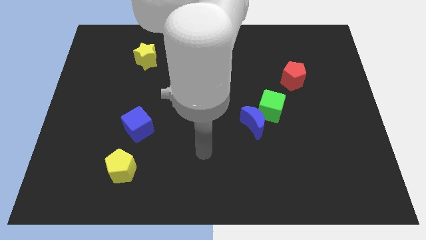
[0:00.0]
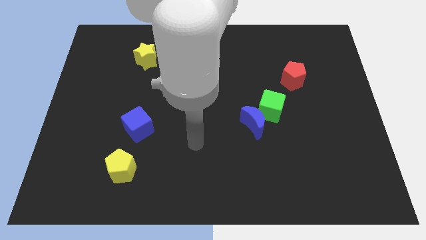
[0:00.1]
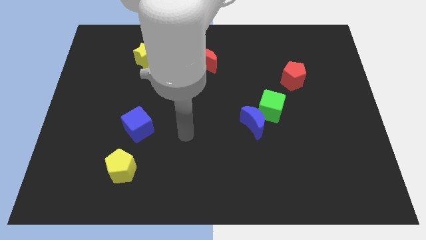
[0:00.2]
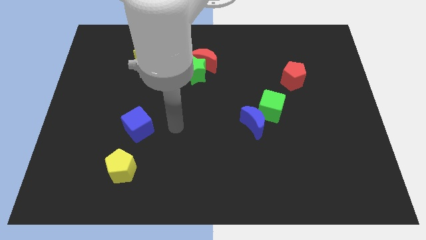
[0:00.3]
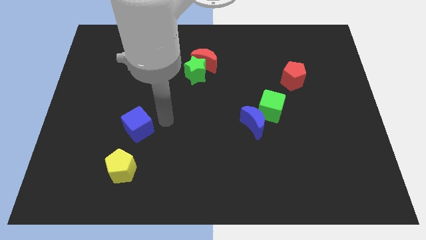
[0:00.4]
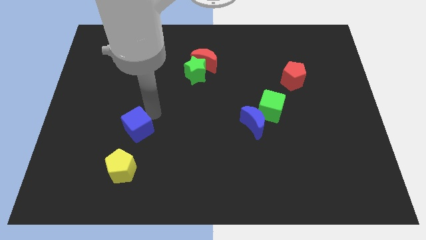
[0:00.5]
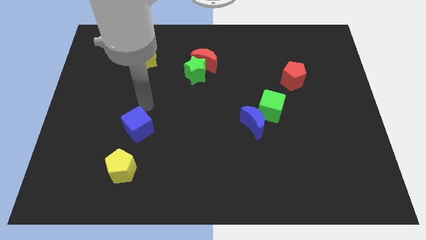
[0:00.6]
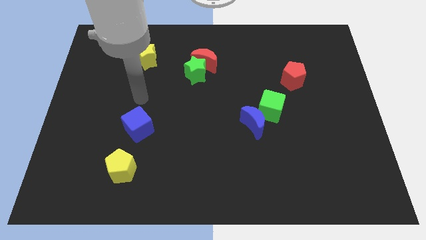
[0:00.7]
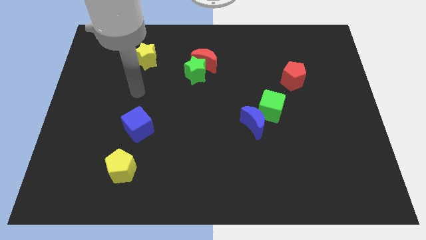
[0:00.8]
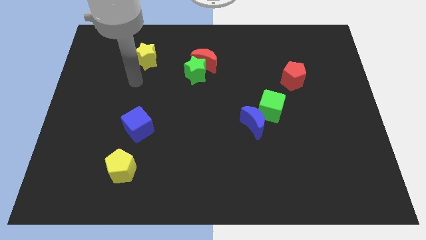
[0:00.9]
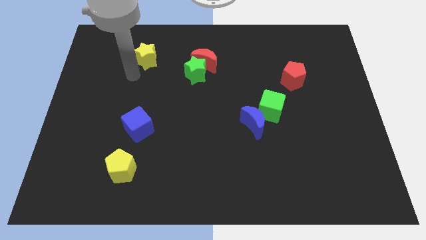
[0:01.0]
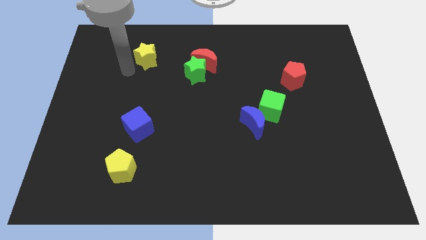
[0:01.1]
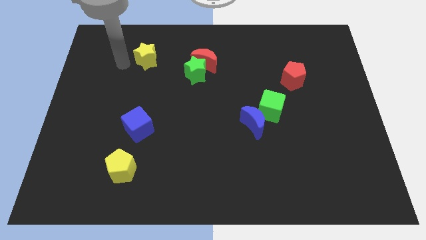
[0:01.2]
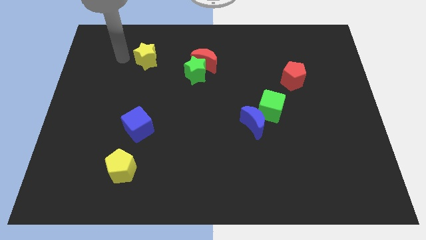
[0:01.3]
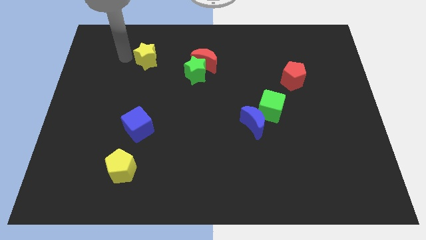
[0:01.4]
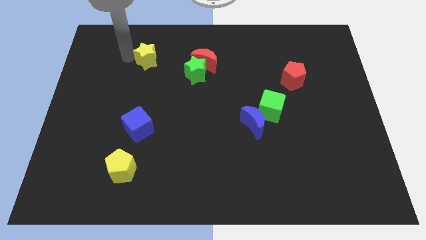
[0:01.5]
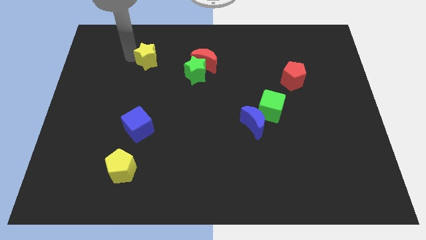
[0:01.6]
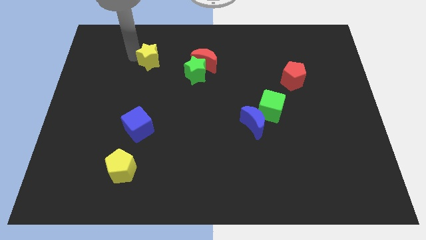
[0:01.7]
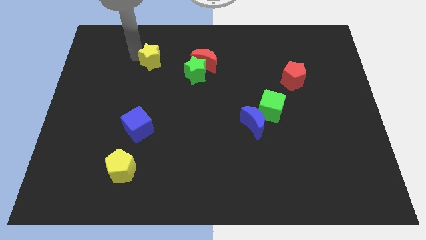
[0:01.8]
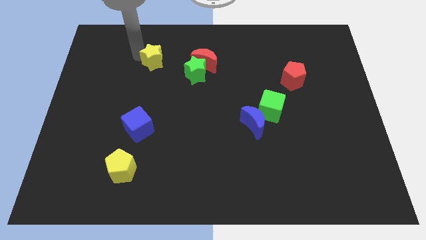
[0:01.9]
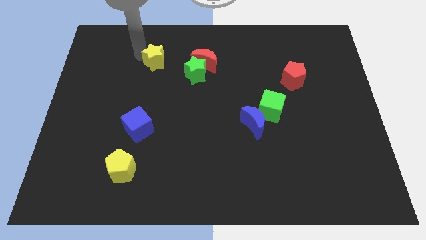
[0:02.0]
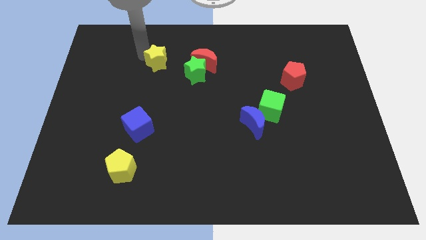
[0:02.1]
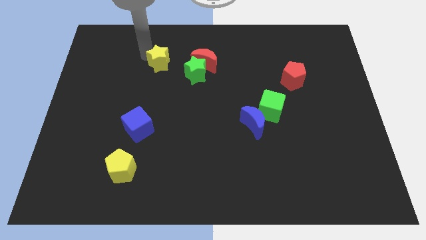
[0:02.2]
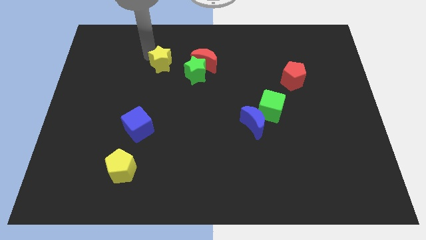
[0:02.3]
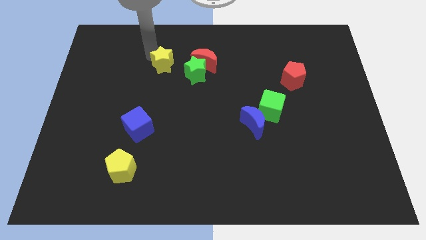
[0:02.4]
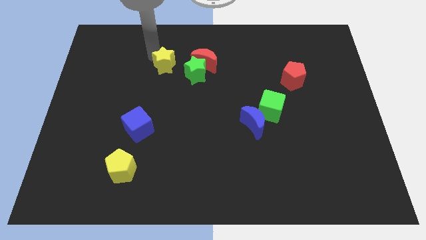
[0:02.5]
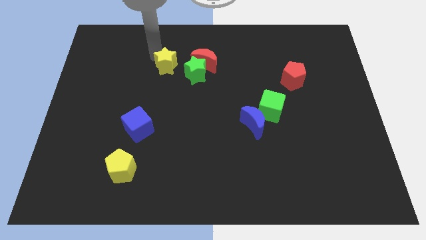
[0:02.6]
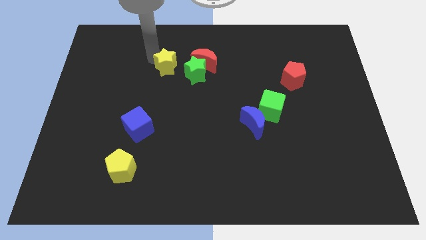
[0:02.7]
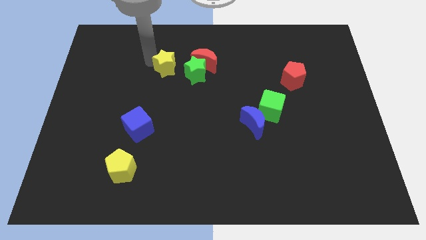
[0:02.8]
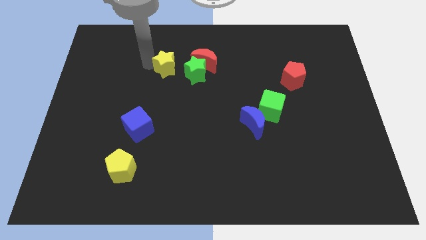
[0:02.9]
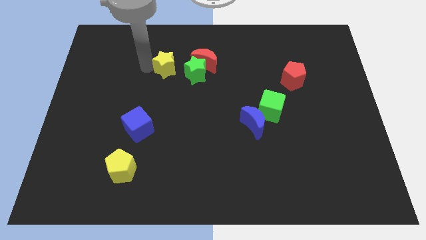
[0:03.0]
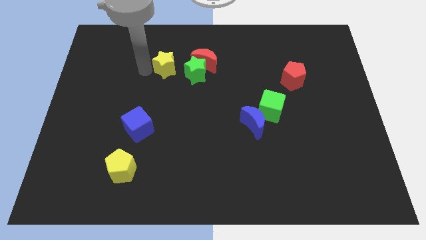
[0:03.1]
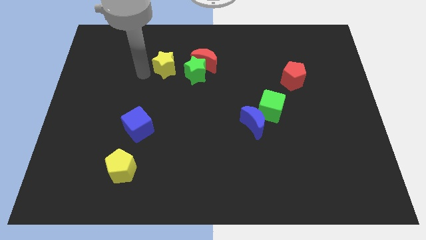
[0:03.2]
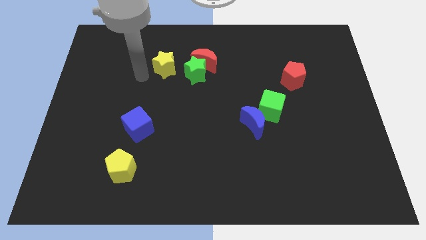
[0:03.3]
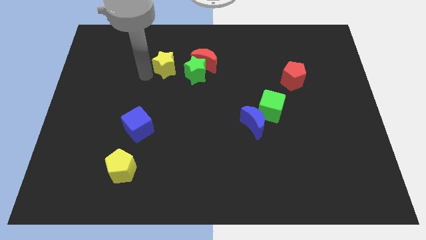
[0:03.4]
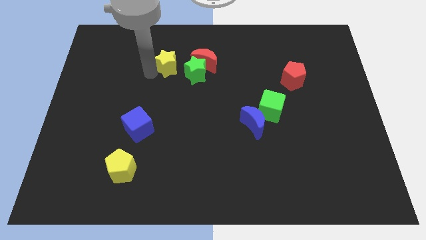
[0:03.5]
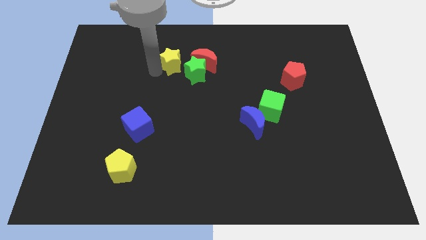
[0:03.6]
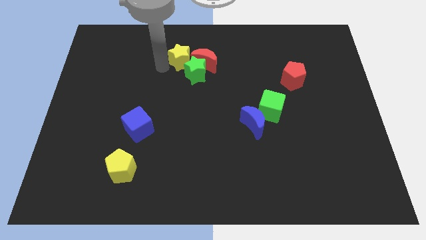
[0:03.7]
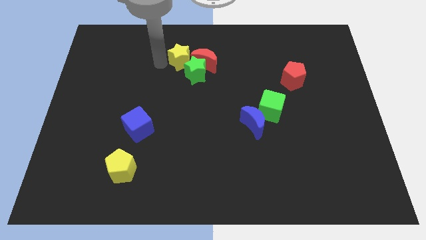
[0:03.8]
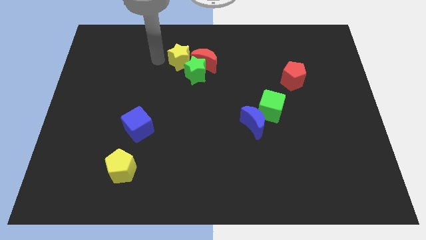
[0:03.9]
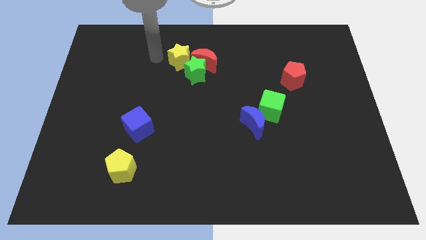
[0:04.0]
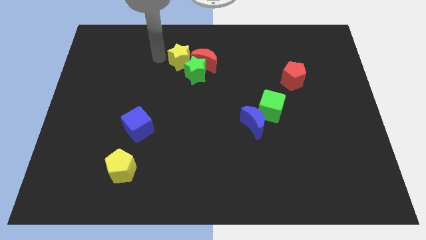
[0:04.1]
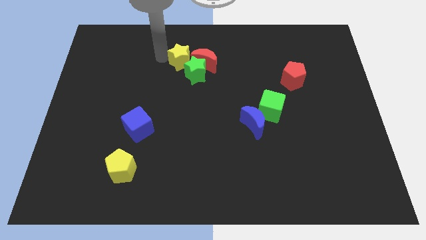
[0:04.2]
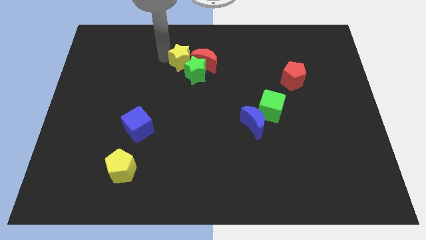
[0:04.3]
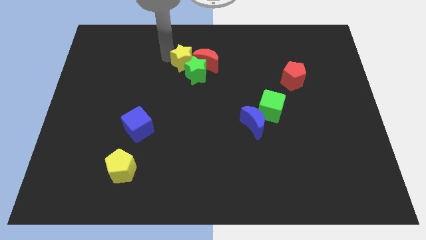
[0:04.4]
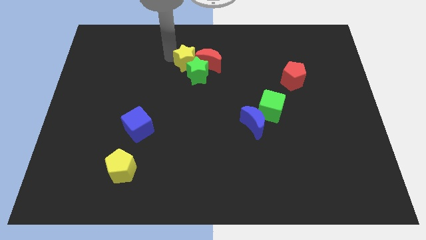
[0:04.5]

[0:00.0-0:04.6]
slide the yellow star next to the red moon

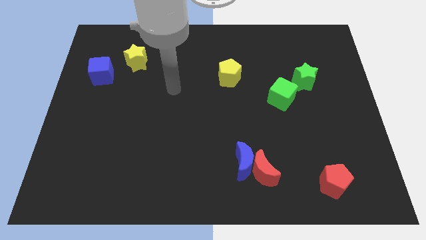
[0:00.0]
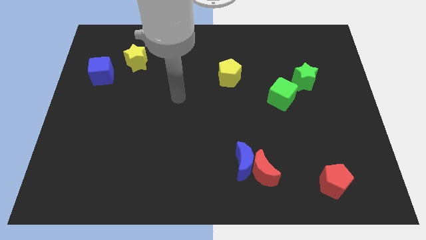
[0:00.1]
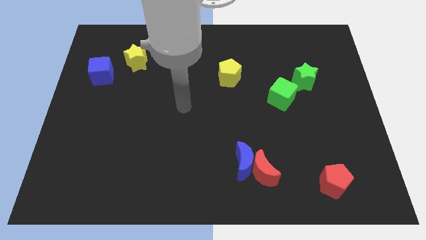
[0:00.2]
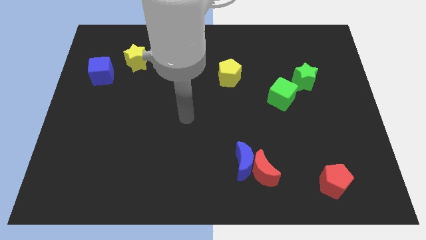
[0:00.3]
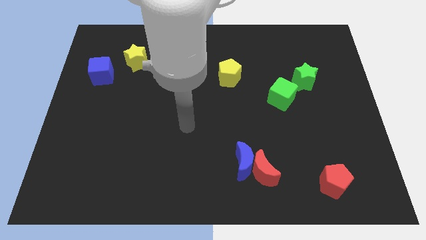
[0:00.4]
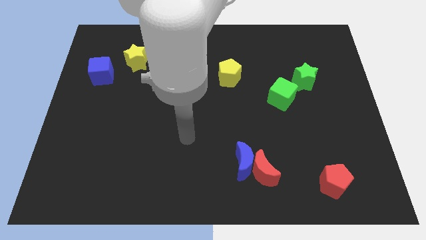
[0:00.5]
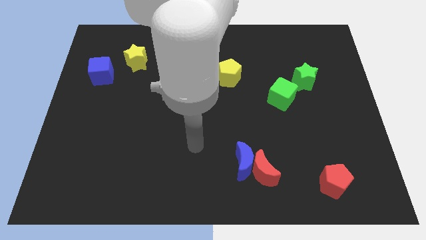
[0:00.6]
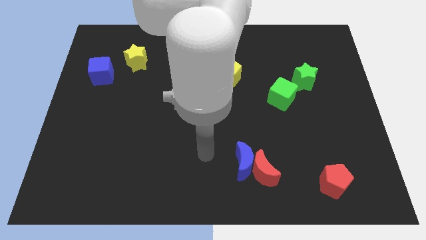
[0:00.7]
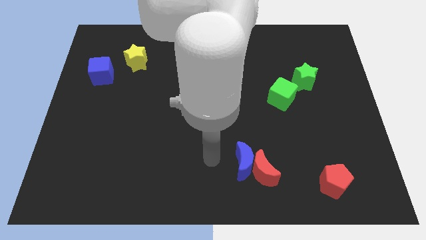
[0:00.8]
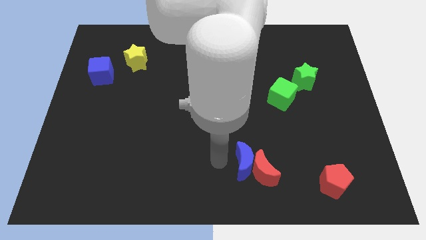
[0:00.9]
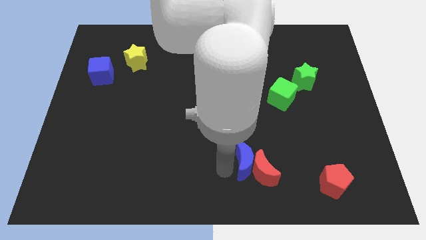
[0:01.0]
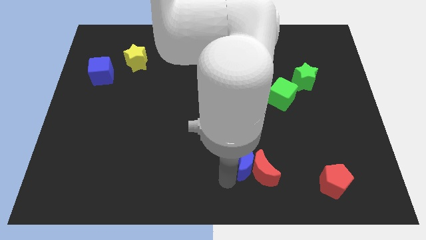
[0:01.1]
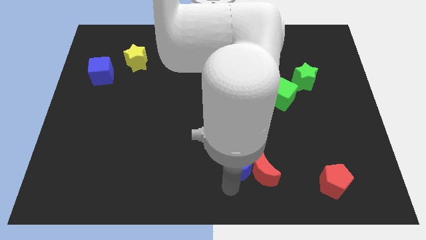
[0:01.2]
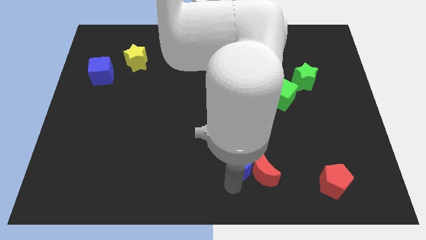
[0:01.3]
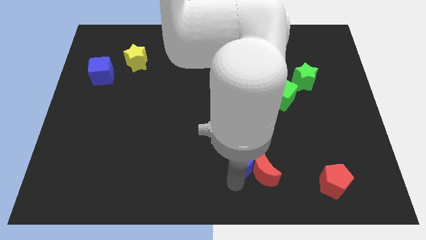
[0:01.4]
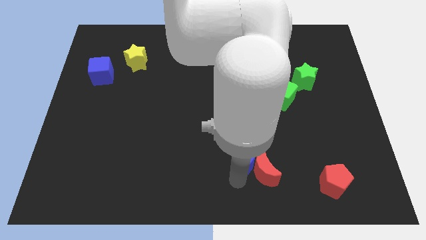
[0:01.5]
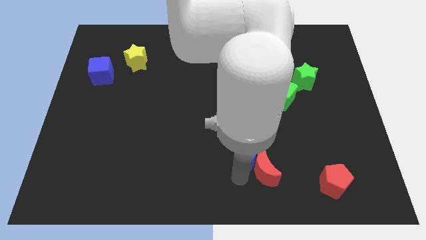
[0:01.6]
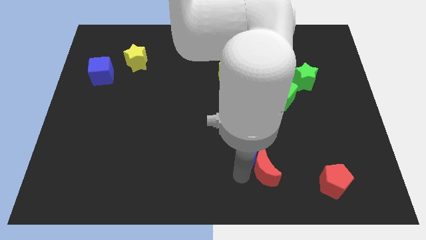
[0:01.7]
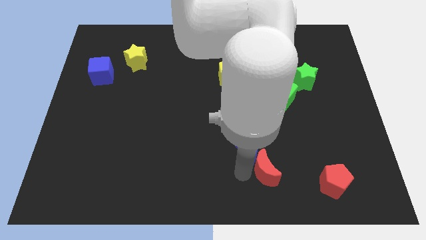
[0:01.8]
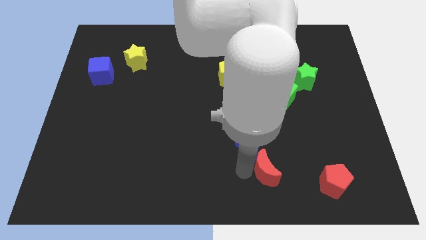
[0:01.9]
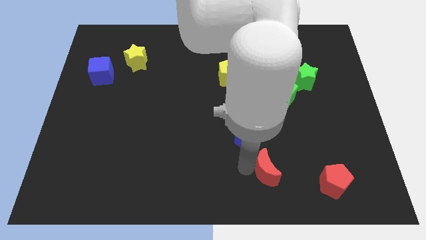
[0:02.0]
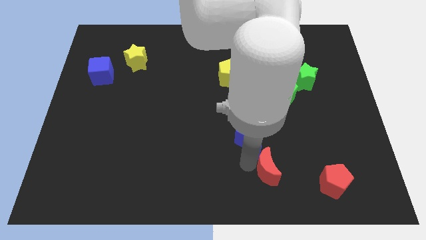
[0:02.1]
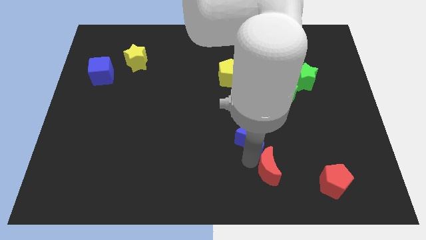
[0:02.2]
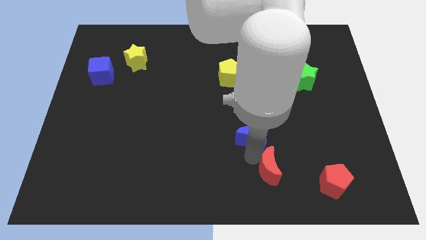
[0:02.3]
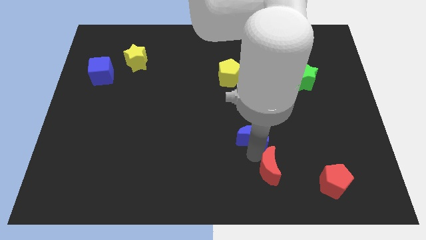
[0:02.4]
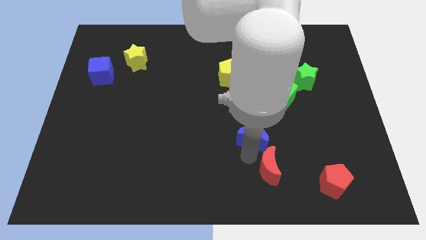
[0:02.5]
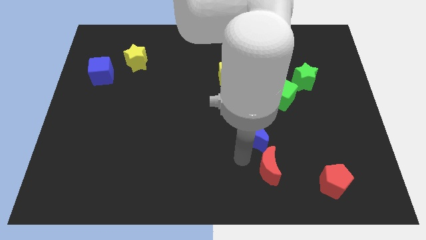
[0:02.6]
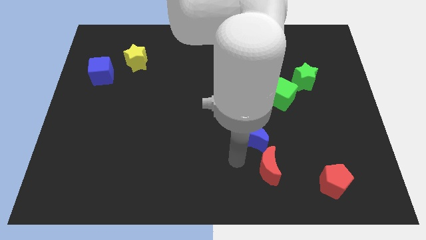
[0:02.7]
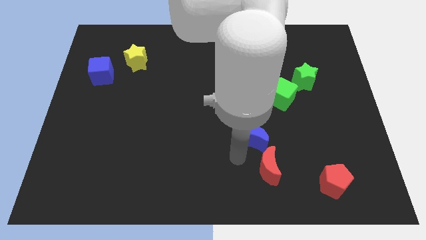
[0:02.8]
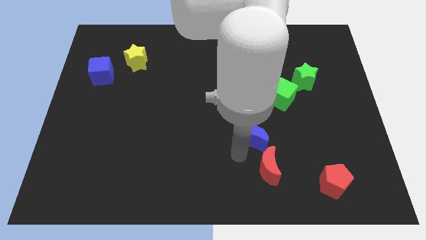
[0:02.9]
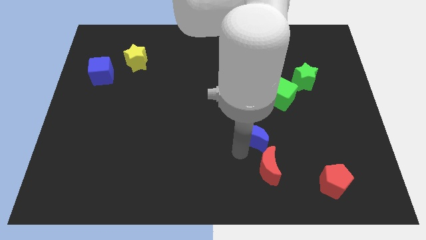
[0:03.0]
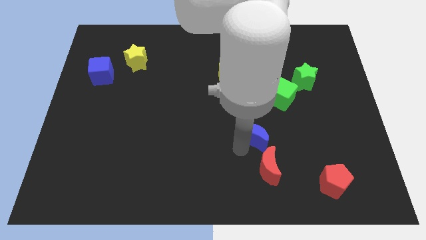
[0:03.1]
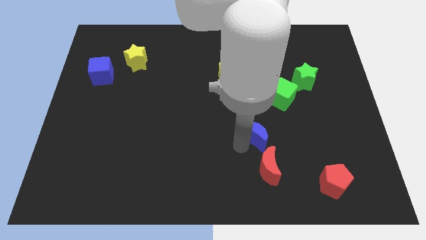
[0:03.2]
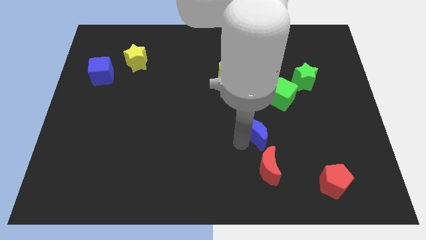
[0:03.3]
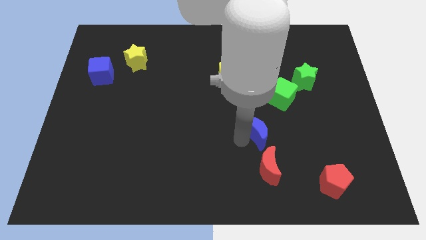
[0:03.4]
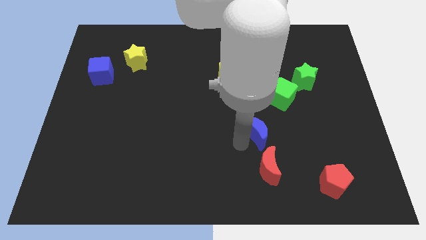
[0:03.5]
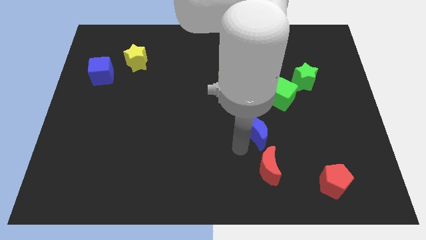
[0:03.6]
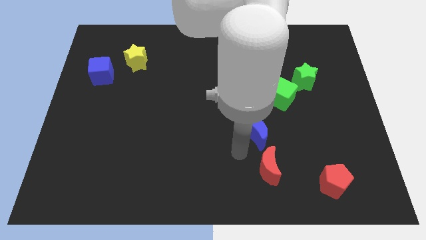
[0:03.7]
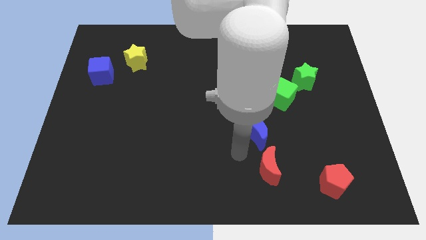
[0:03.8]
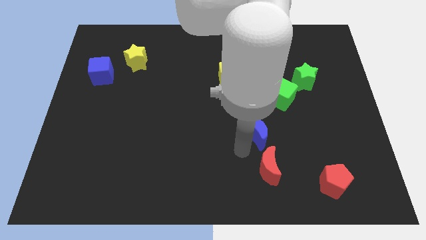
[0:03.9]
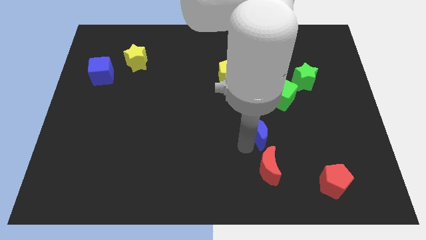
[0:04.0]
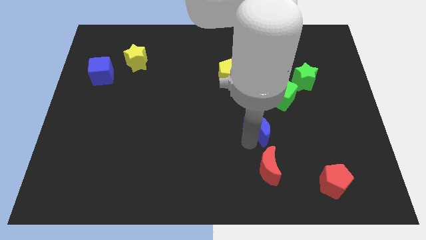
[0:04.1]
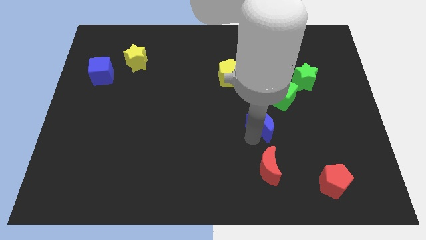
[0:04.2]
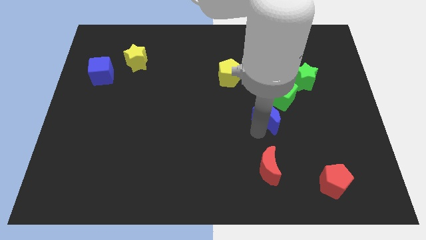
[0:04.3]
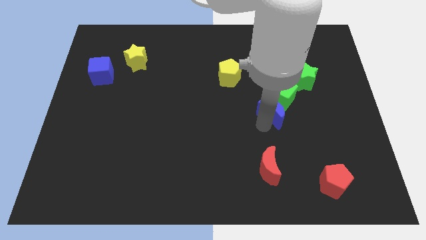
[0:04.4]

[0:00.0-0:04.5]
move the blue moon next to the green cube
